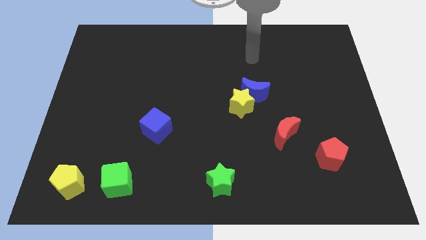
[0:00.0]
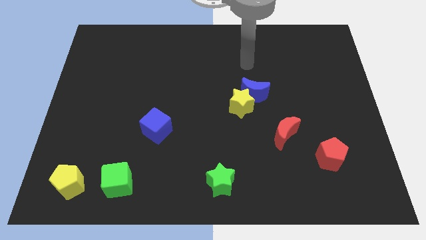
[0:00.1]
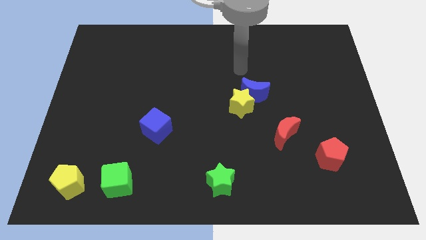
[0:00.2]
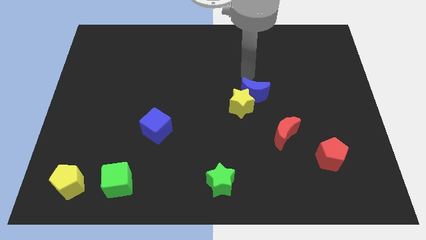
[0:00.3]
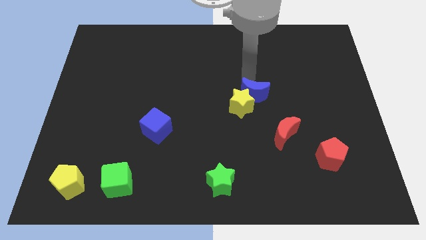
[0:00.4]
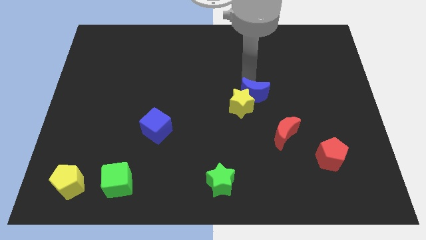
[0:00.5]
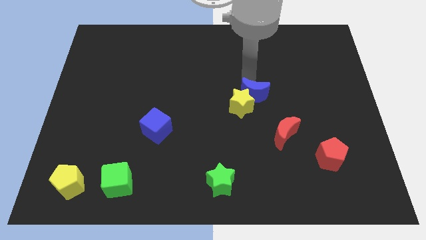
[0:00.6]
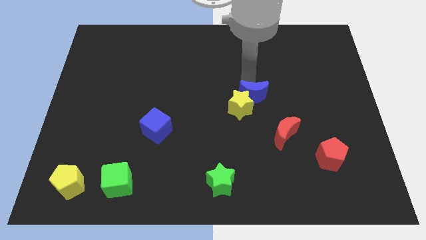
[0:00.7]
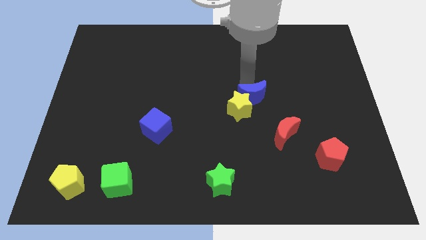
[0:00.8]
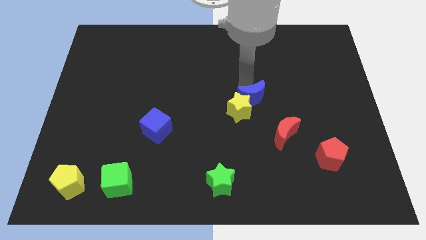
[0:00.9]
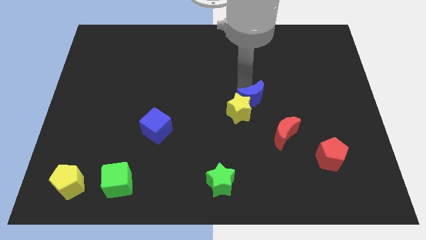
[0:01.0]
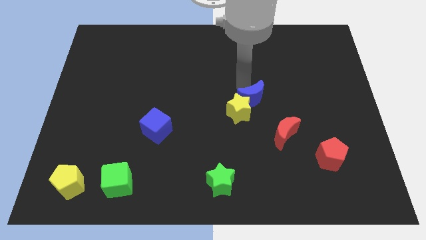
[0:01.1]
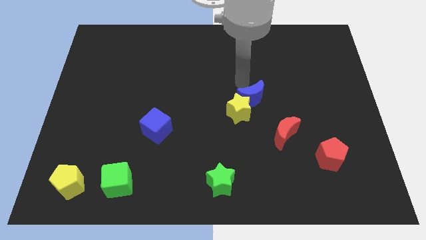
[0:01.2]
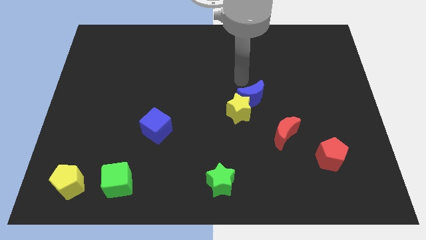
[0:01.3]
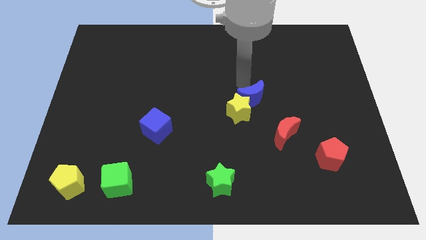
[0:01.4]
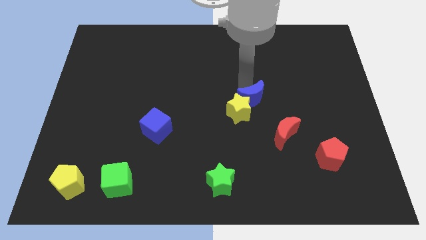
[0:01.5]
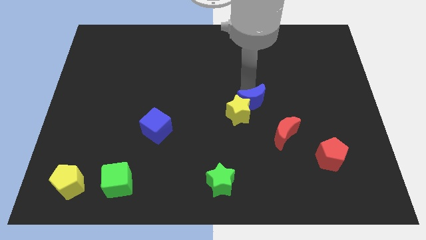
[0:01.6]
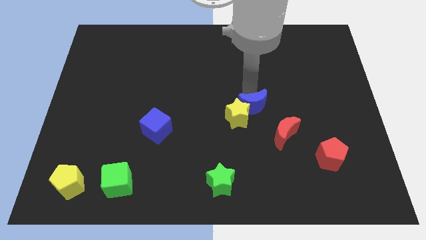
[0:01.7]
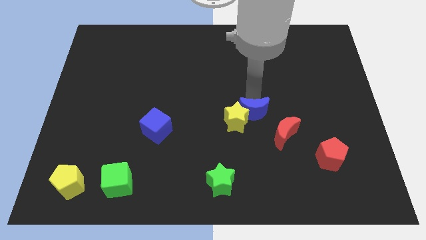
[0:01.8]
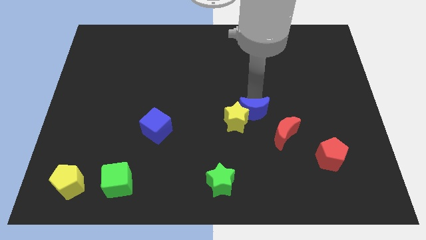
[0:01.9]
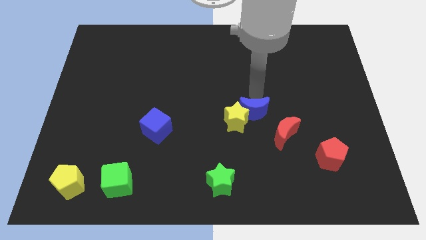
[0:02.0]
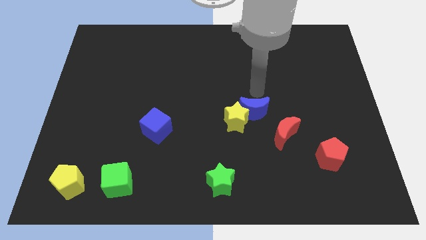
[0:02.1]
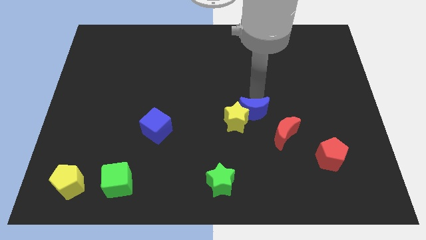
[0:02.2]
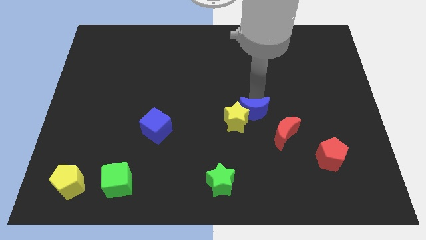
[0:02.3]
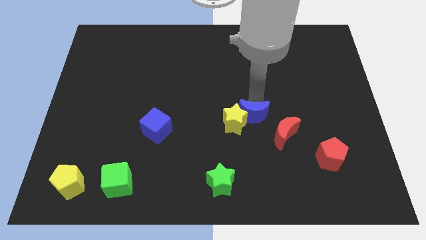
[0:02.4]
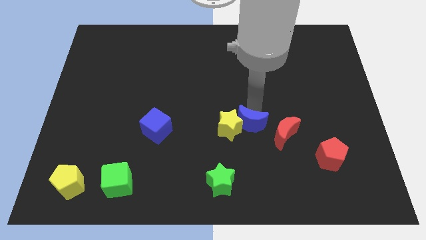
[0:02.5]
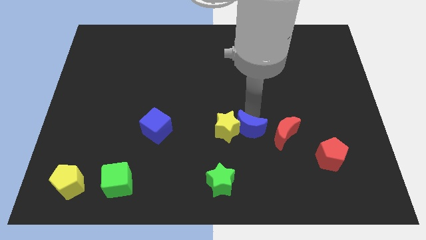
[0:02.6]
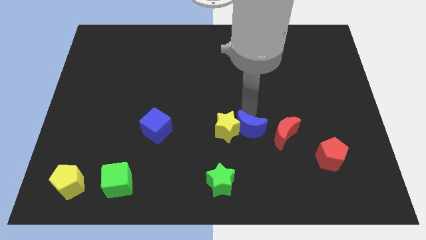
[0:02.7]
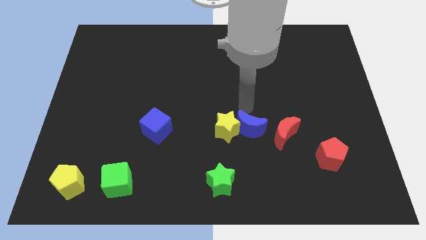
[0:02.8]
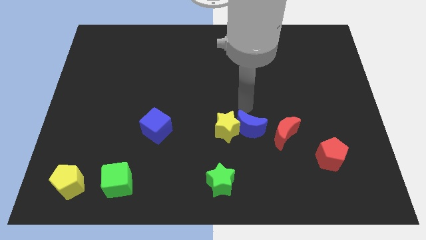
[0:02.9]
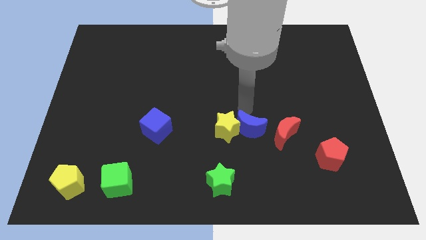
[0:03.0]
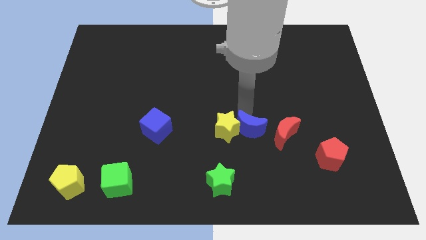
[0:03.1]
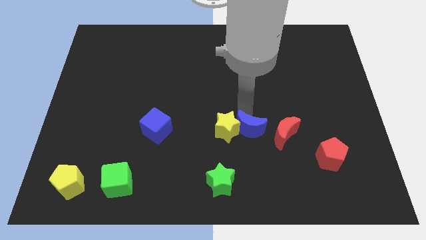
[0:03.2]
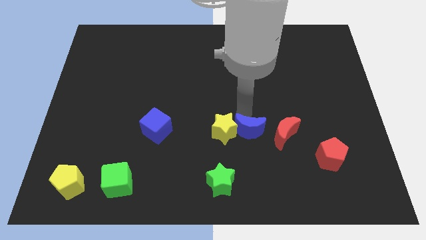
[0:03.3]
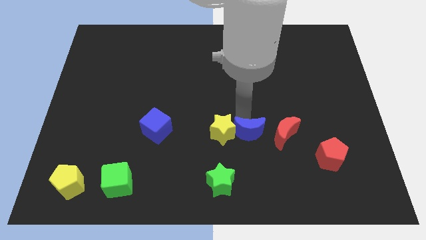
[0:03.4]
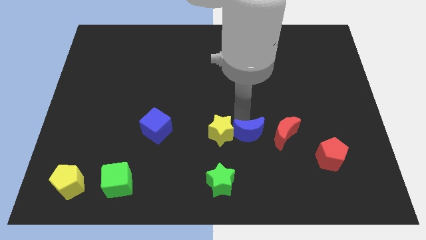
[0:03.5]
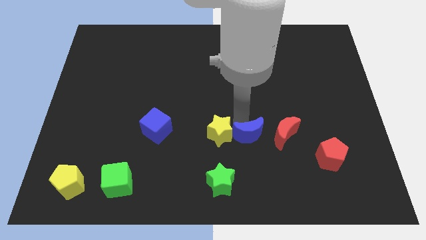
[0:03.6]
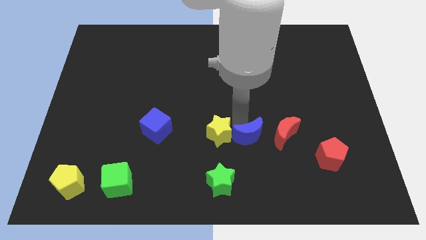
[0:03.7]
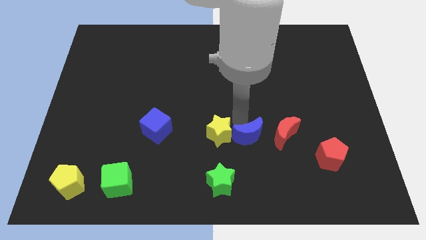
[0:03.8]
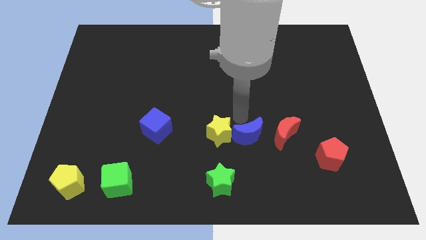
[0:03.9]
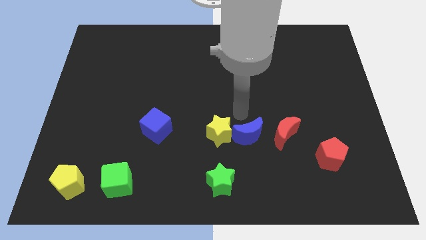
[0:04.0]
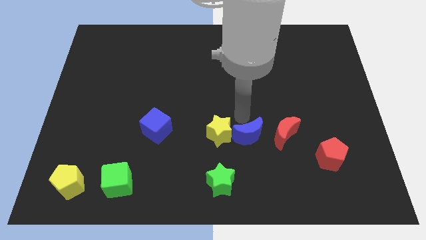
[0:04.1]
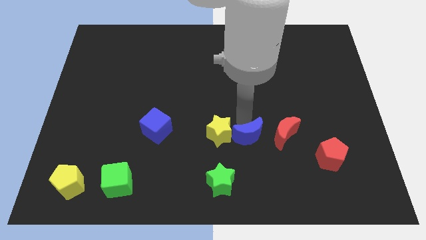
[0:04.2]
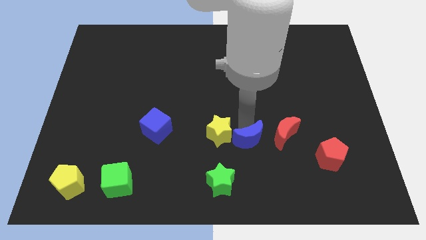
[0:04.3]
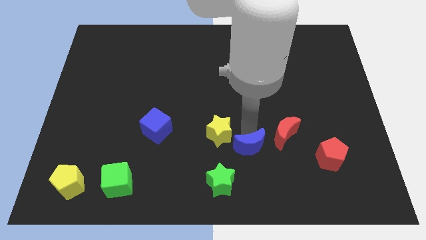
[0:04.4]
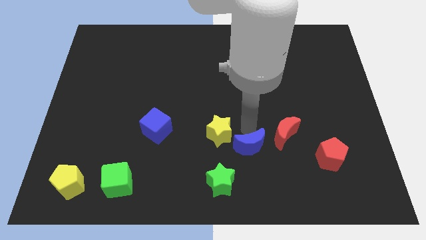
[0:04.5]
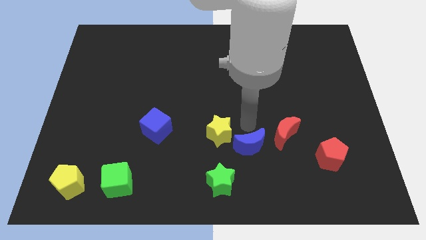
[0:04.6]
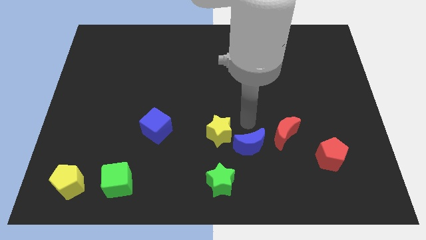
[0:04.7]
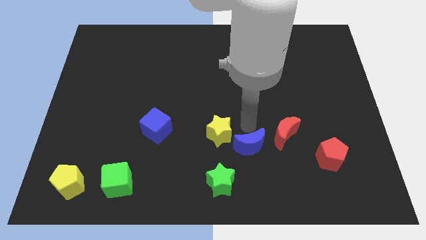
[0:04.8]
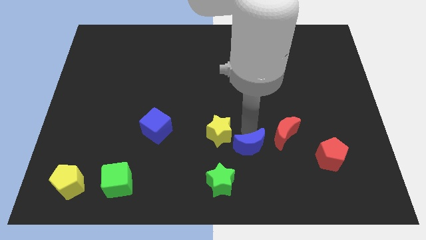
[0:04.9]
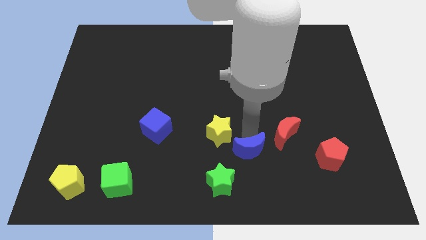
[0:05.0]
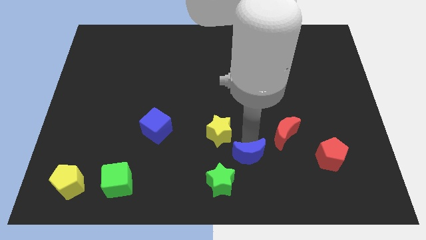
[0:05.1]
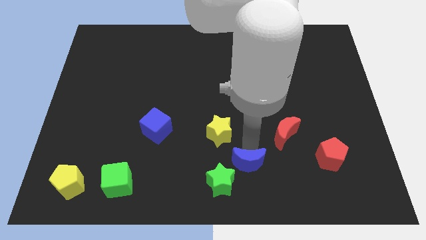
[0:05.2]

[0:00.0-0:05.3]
push the blue moon to the bottom side

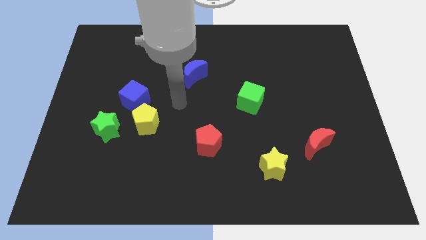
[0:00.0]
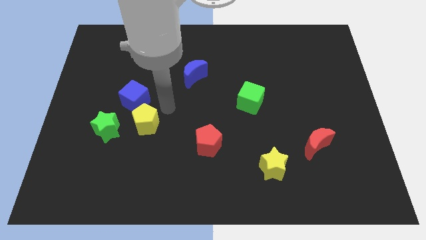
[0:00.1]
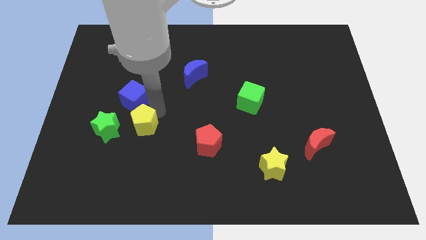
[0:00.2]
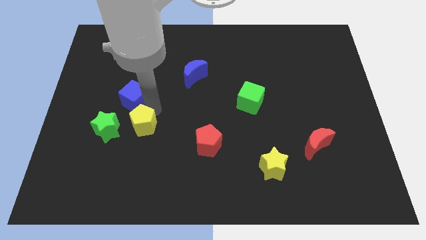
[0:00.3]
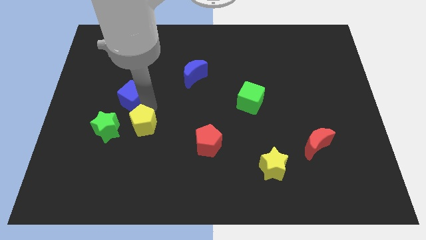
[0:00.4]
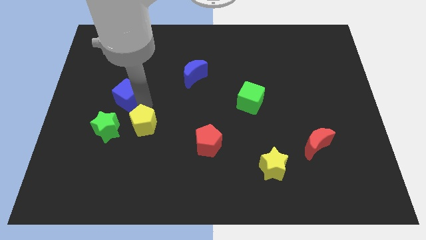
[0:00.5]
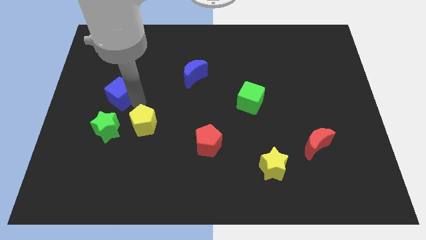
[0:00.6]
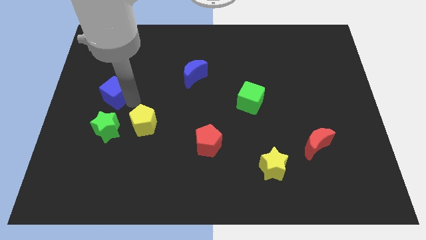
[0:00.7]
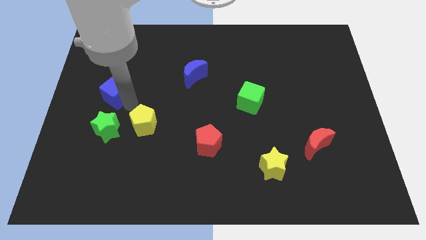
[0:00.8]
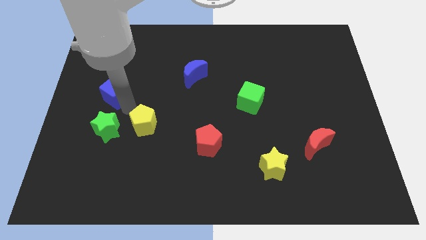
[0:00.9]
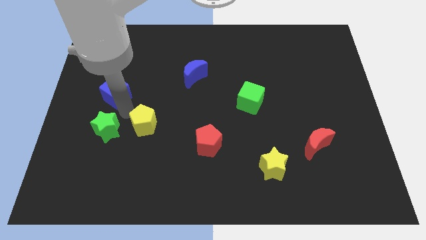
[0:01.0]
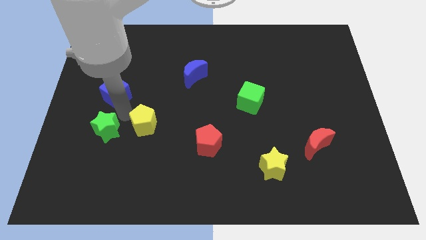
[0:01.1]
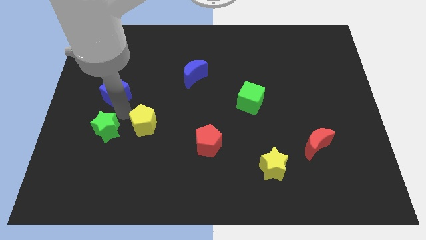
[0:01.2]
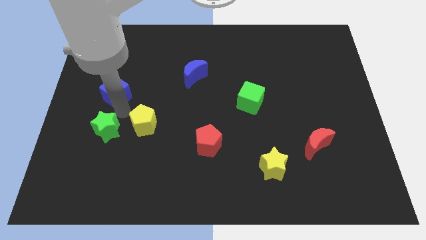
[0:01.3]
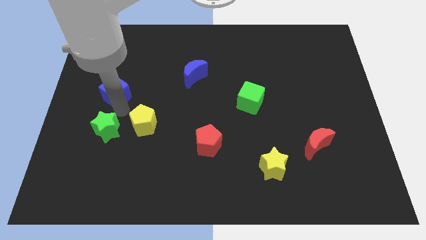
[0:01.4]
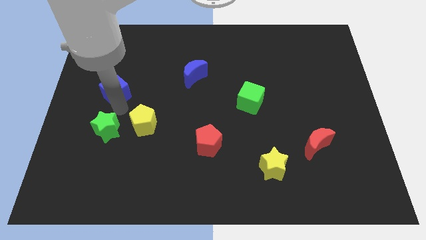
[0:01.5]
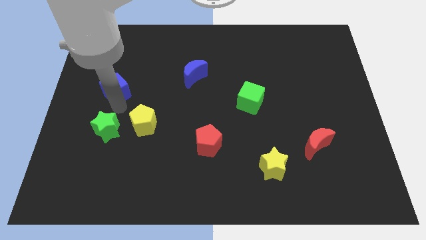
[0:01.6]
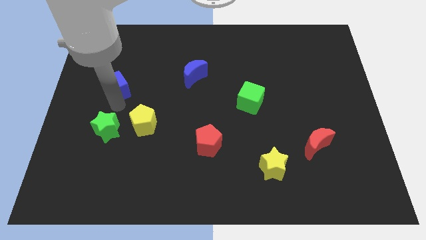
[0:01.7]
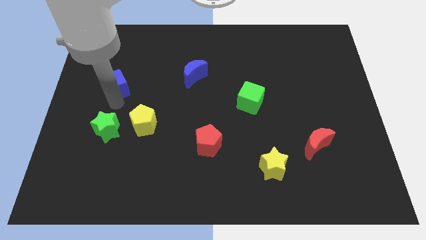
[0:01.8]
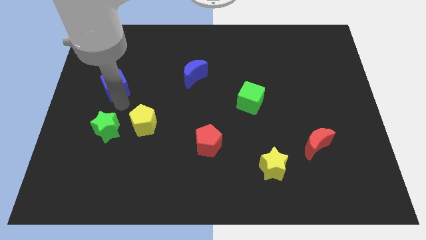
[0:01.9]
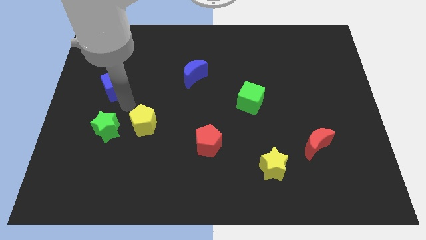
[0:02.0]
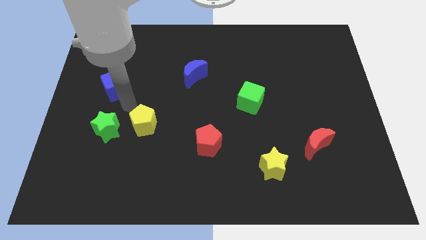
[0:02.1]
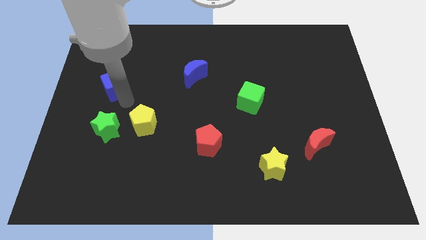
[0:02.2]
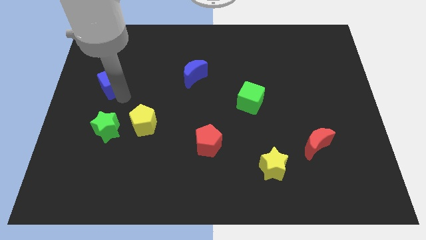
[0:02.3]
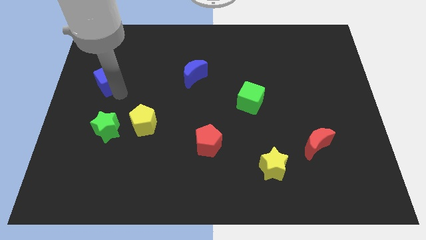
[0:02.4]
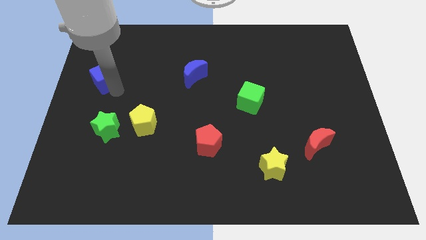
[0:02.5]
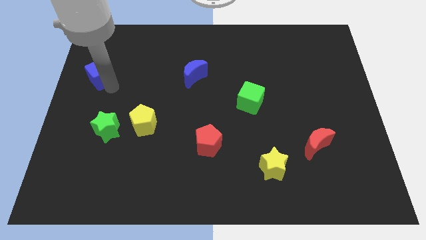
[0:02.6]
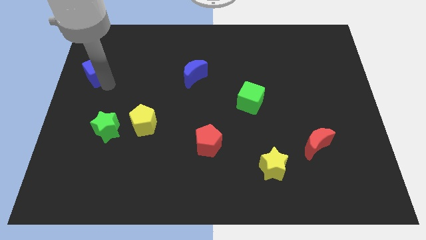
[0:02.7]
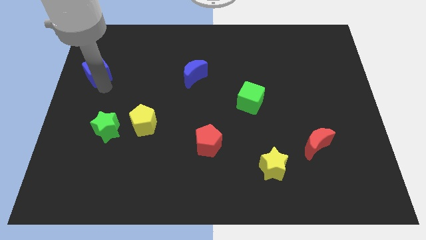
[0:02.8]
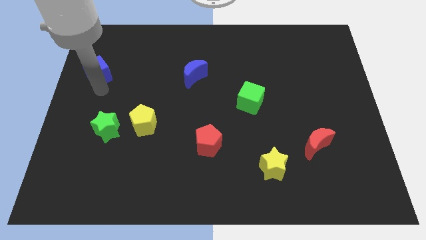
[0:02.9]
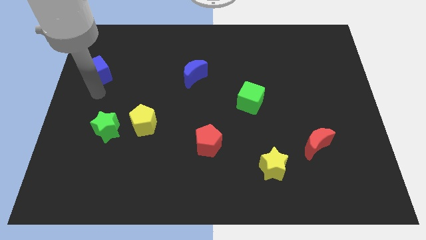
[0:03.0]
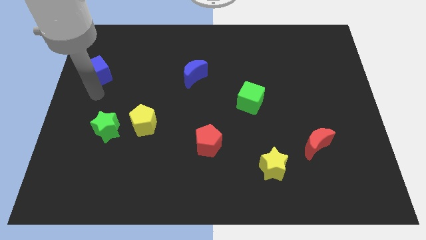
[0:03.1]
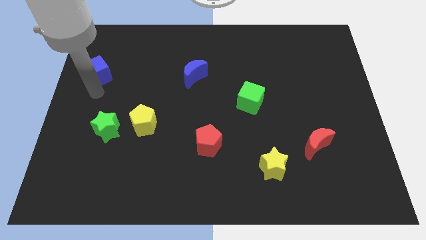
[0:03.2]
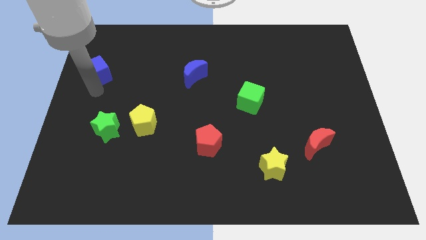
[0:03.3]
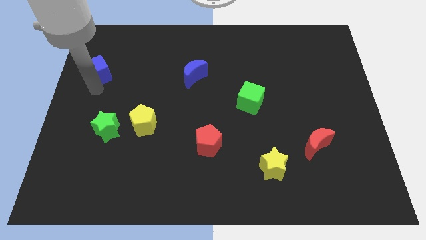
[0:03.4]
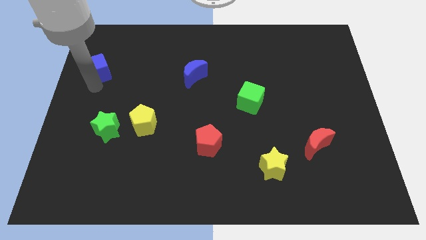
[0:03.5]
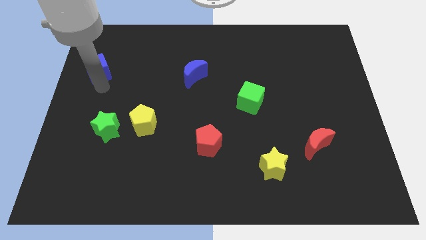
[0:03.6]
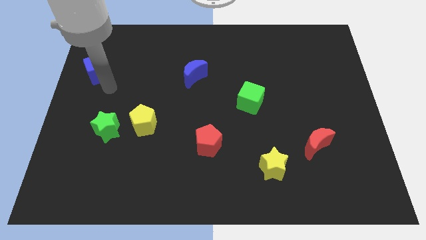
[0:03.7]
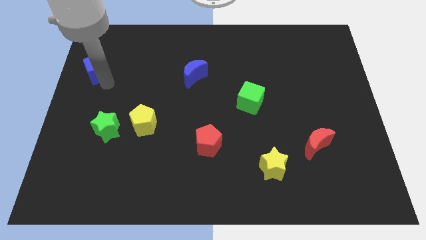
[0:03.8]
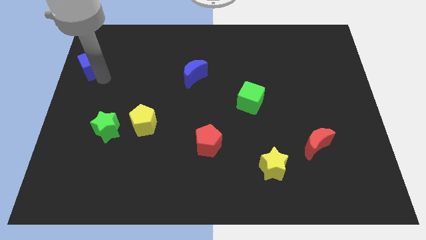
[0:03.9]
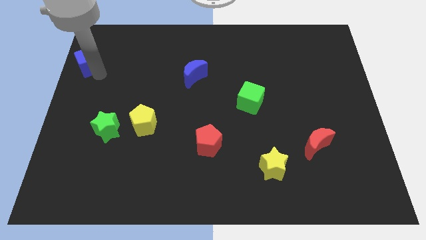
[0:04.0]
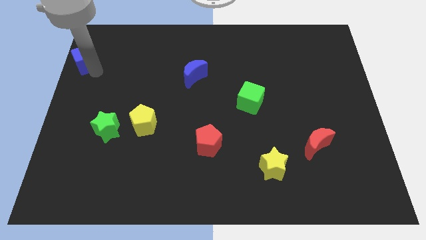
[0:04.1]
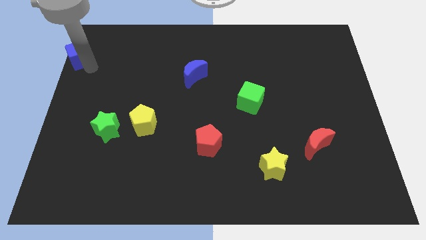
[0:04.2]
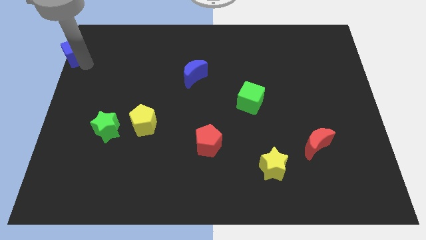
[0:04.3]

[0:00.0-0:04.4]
put the blue cube to the top left of the board
